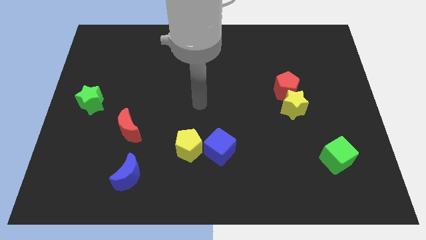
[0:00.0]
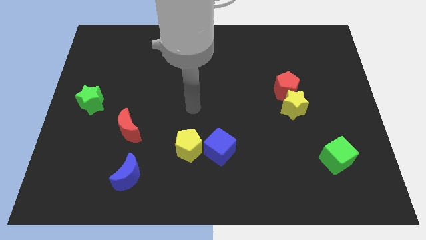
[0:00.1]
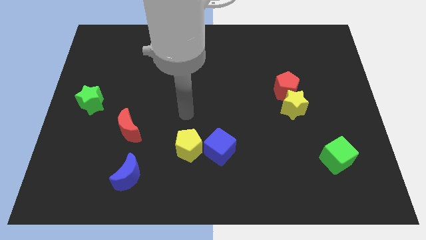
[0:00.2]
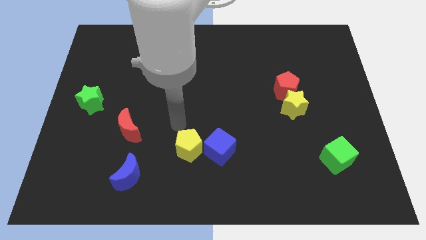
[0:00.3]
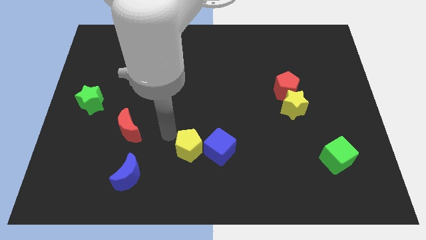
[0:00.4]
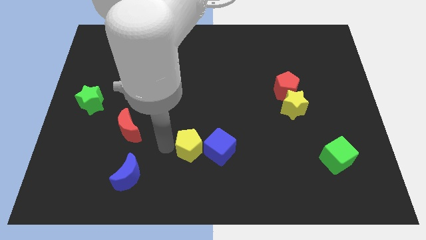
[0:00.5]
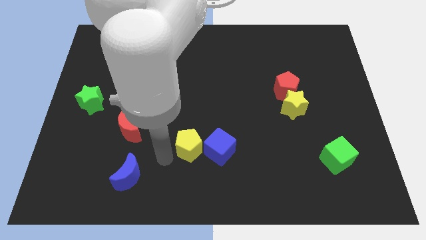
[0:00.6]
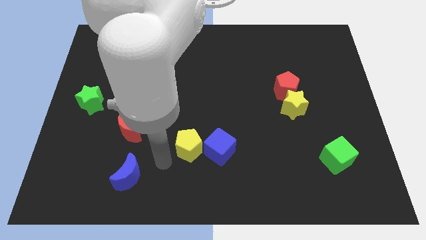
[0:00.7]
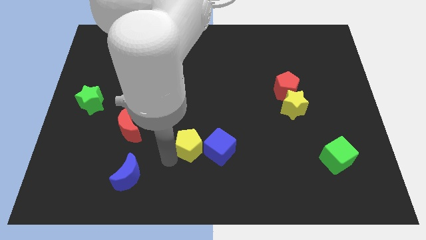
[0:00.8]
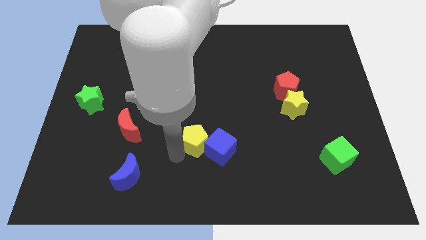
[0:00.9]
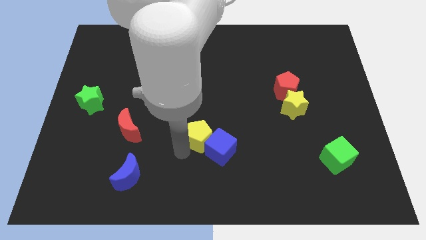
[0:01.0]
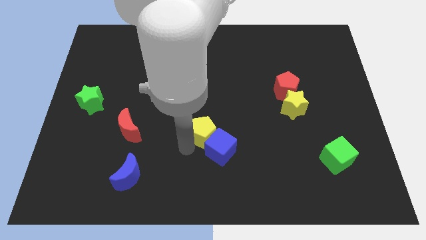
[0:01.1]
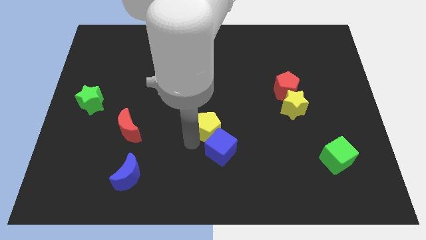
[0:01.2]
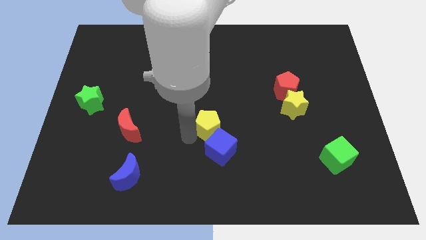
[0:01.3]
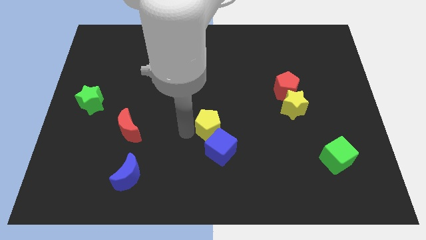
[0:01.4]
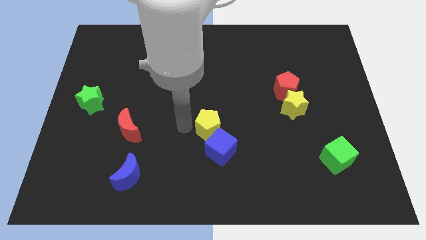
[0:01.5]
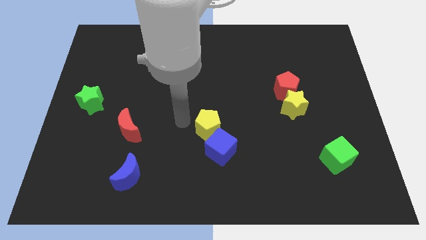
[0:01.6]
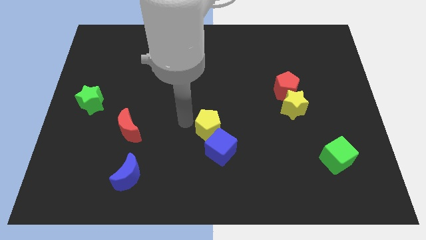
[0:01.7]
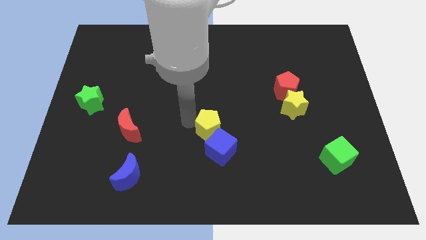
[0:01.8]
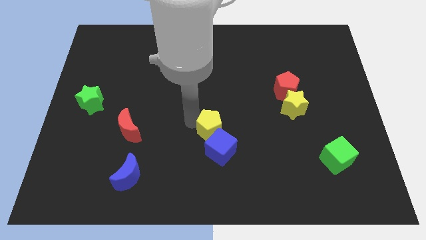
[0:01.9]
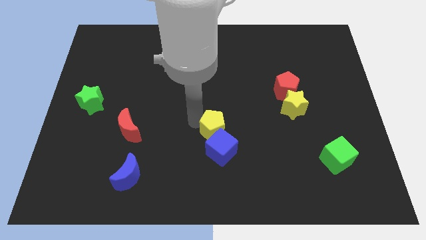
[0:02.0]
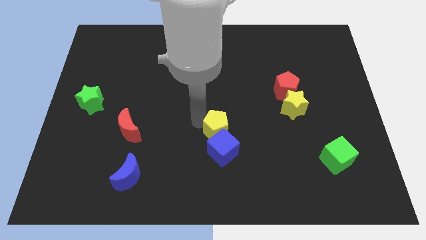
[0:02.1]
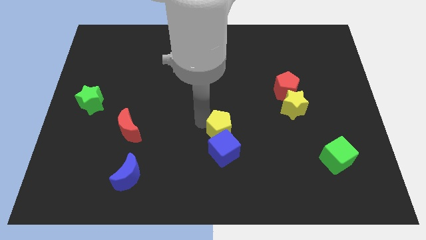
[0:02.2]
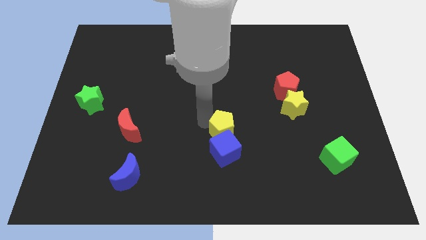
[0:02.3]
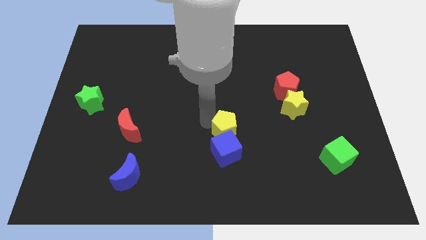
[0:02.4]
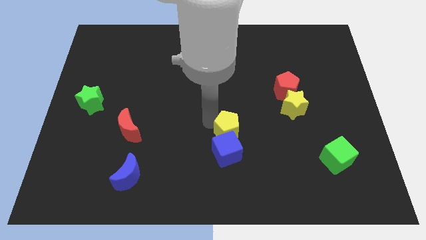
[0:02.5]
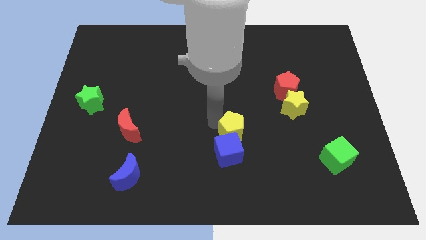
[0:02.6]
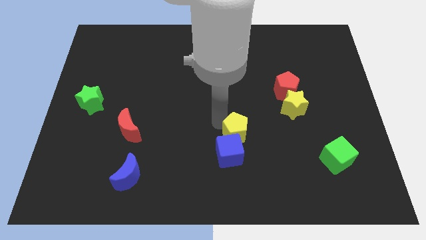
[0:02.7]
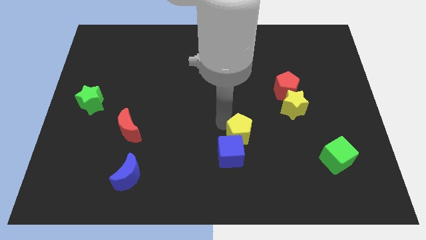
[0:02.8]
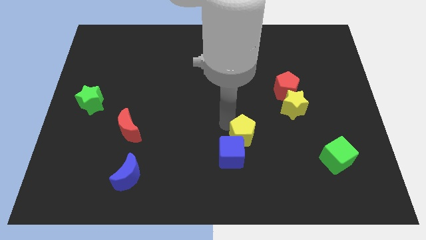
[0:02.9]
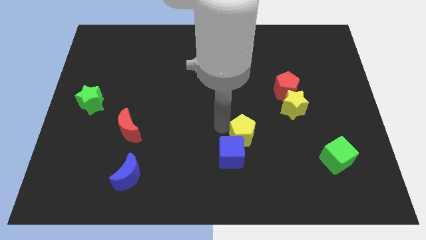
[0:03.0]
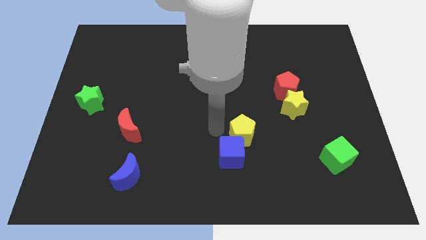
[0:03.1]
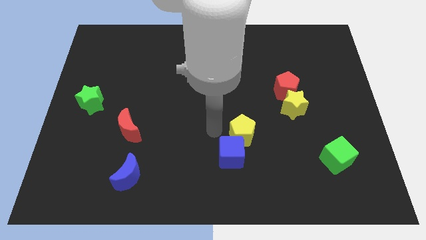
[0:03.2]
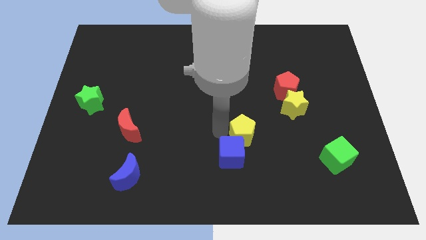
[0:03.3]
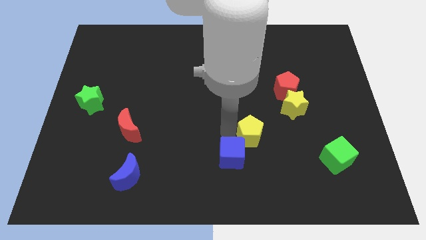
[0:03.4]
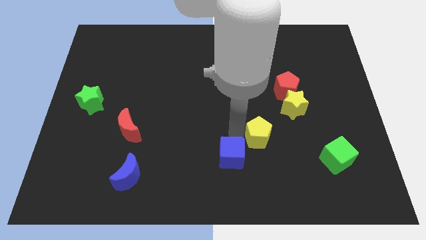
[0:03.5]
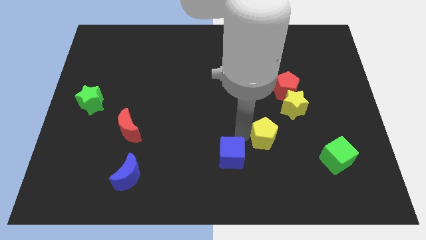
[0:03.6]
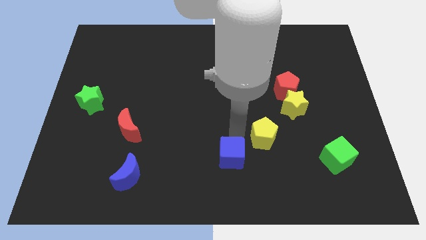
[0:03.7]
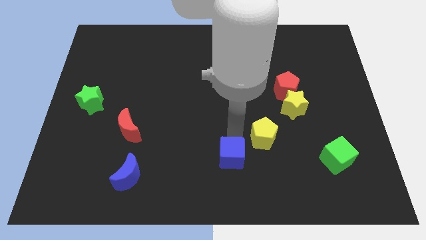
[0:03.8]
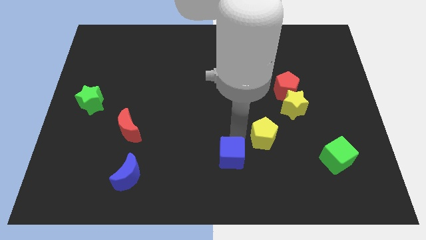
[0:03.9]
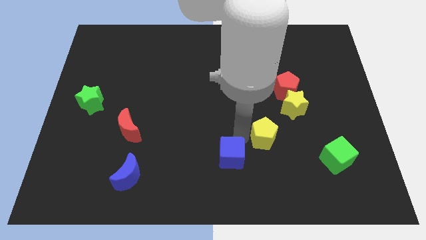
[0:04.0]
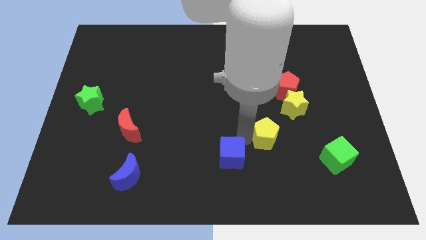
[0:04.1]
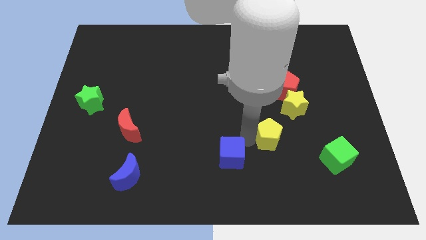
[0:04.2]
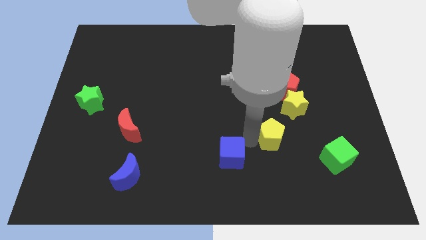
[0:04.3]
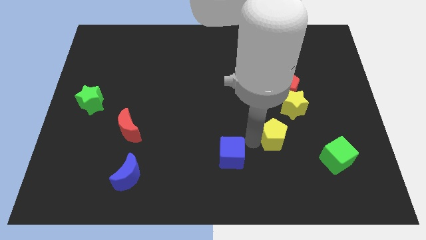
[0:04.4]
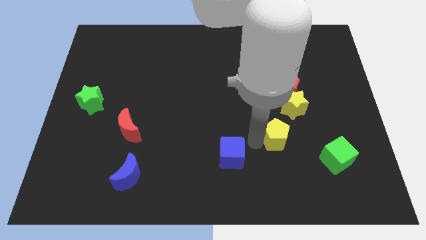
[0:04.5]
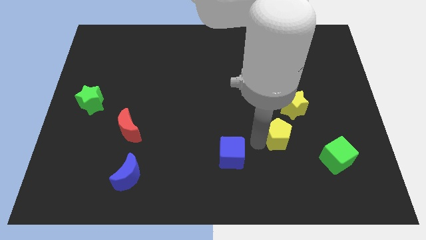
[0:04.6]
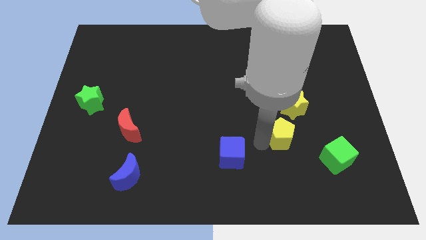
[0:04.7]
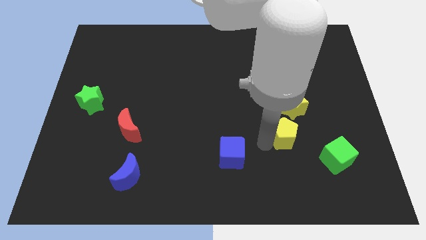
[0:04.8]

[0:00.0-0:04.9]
push the yellow pentagon to the top left of the green cube

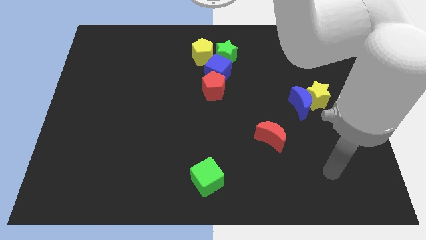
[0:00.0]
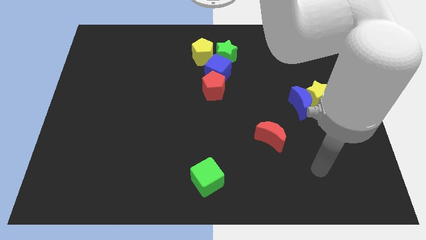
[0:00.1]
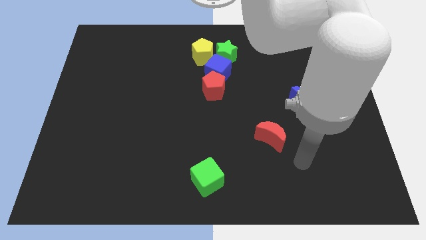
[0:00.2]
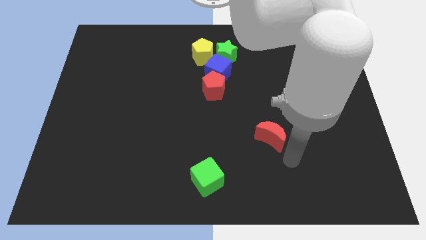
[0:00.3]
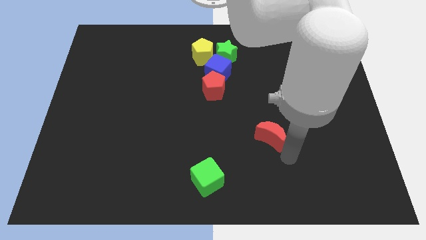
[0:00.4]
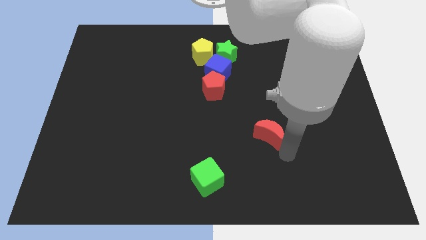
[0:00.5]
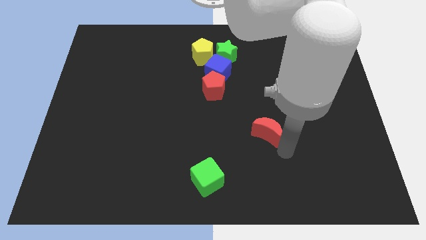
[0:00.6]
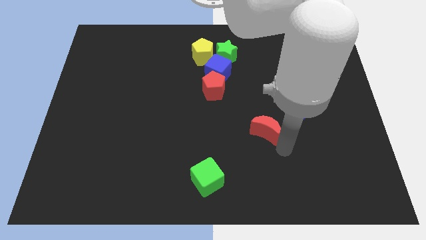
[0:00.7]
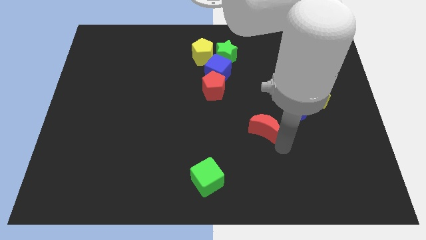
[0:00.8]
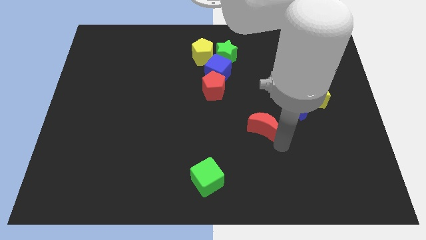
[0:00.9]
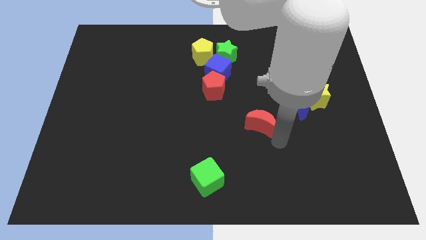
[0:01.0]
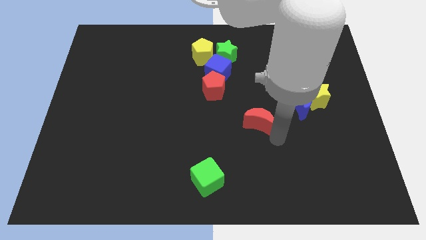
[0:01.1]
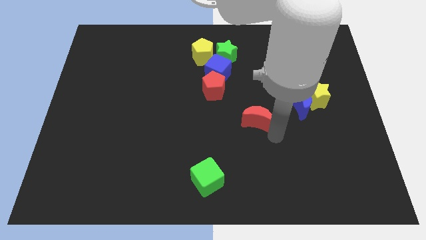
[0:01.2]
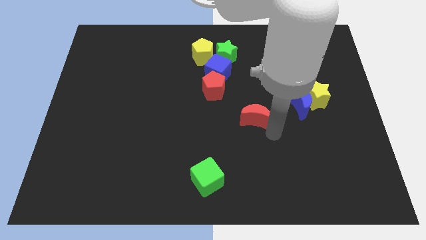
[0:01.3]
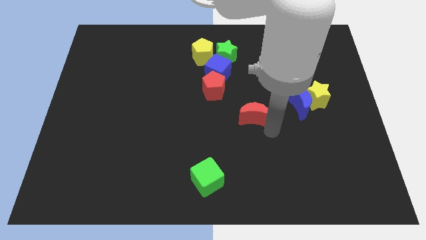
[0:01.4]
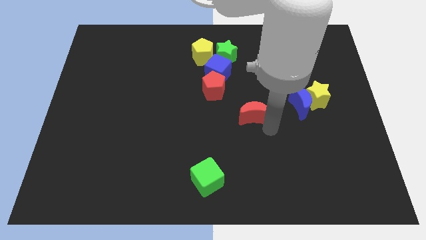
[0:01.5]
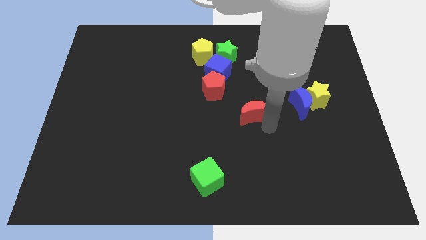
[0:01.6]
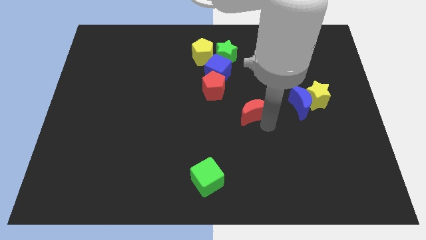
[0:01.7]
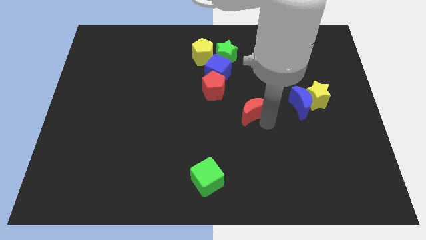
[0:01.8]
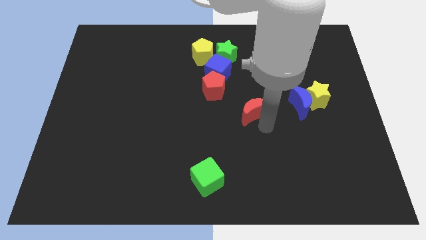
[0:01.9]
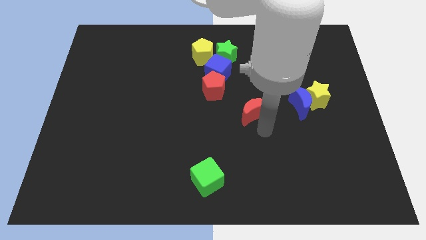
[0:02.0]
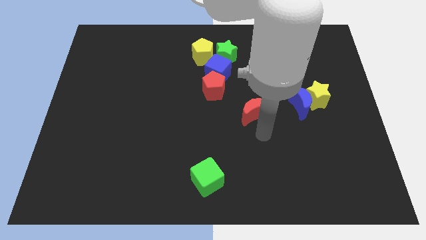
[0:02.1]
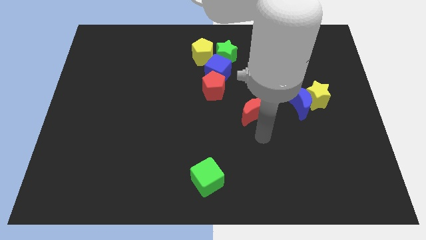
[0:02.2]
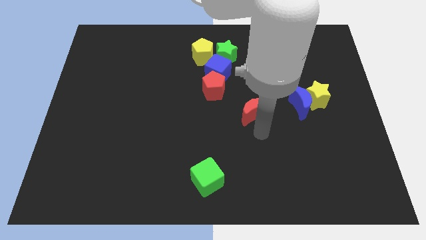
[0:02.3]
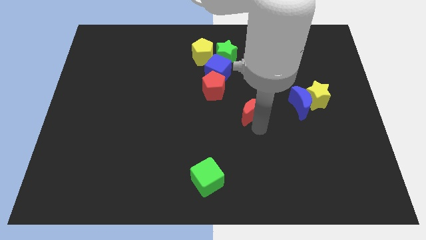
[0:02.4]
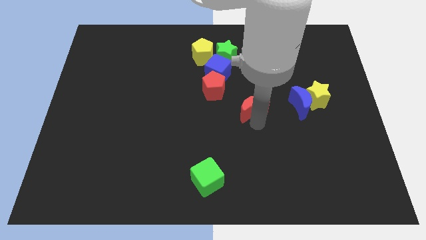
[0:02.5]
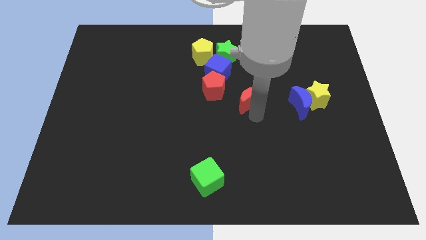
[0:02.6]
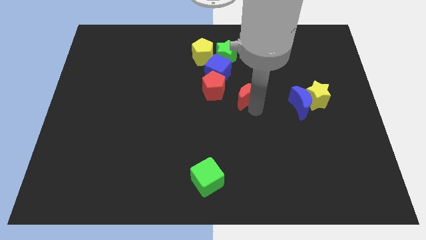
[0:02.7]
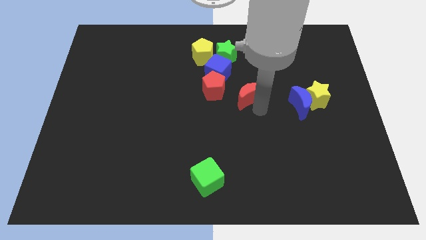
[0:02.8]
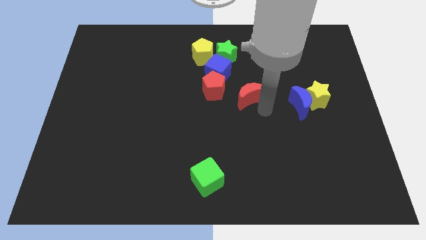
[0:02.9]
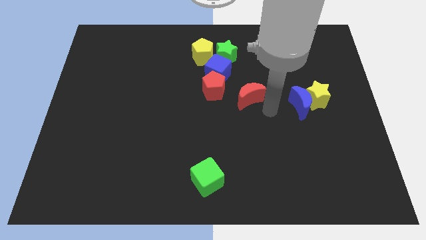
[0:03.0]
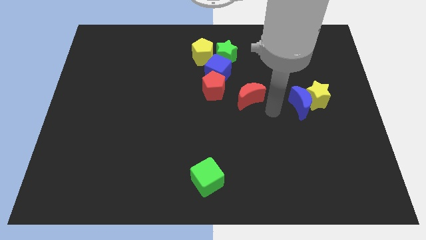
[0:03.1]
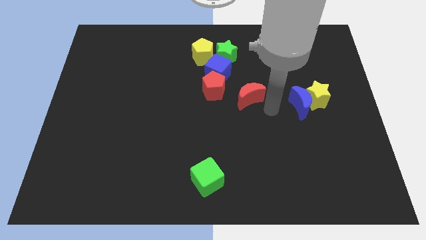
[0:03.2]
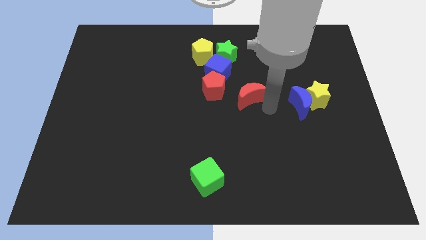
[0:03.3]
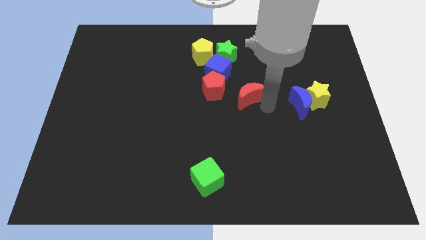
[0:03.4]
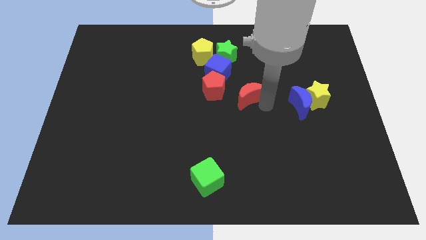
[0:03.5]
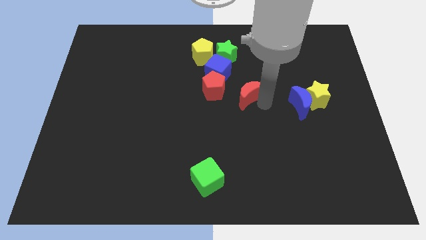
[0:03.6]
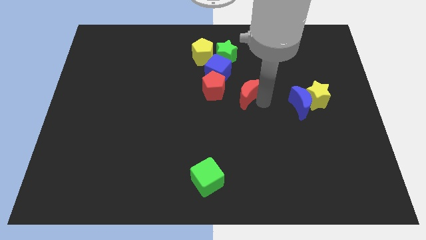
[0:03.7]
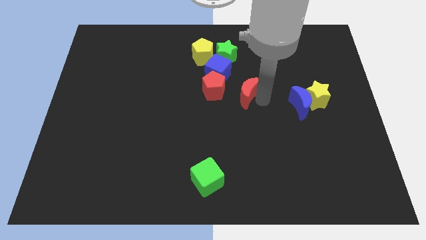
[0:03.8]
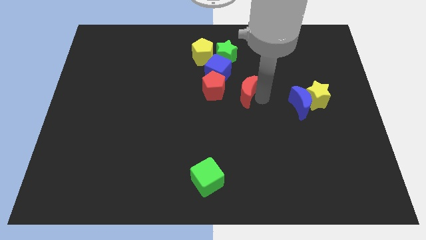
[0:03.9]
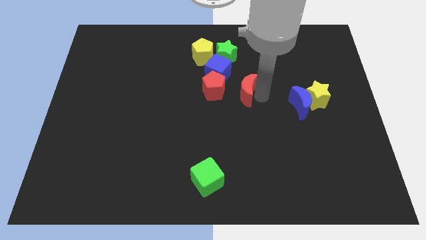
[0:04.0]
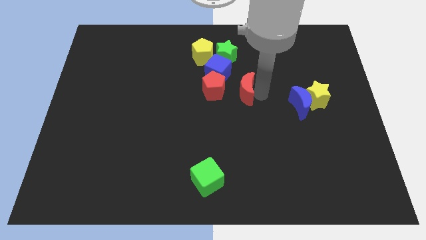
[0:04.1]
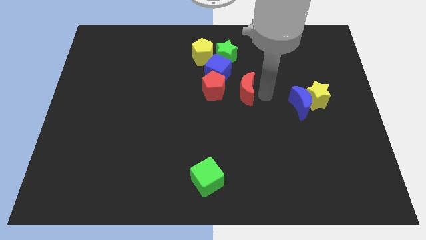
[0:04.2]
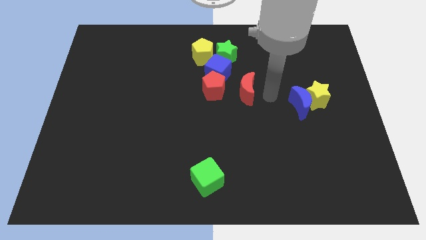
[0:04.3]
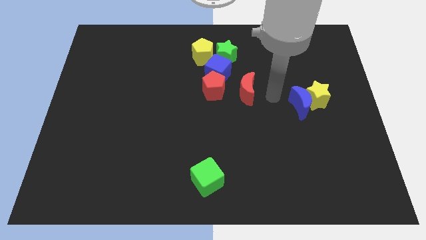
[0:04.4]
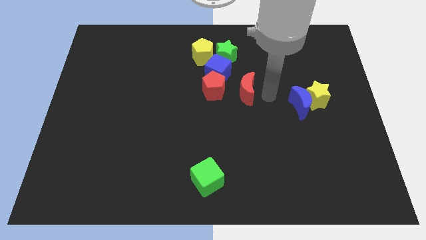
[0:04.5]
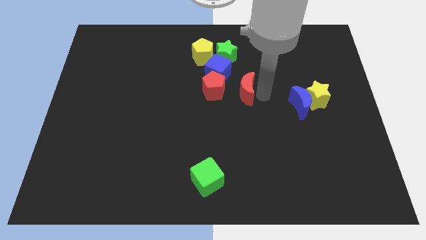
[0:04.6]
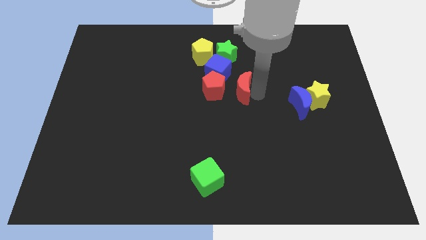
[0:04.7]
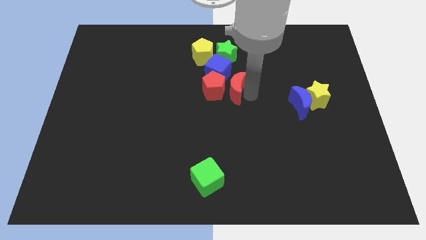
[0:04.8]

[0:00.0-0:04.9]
slide the red moon to the top right side of the red pentagon
